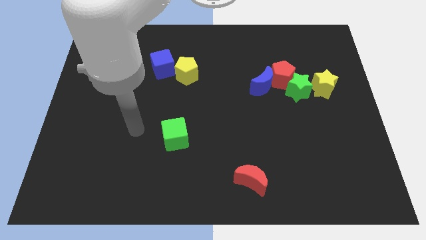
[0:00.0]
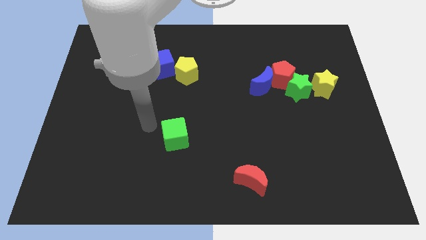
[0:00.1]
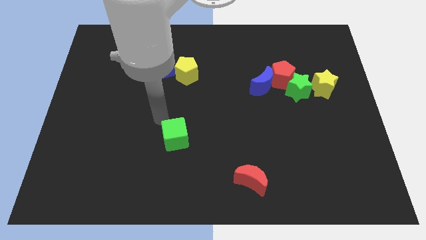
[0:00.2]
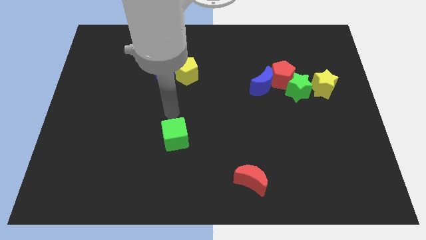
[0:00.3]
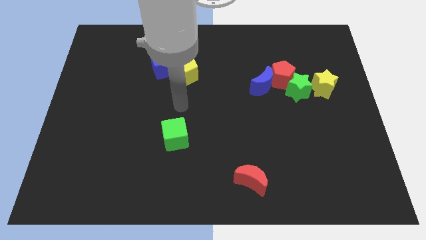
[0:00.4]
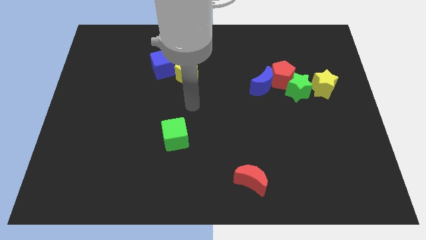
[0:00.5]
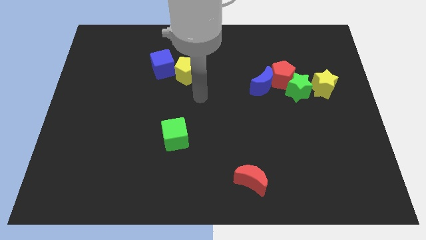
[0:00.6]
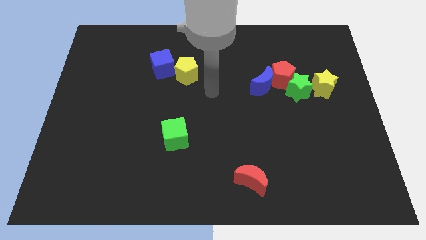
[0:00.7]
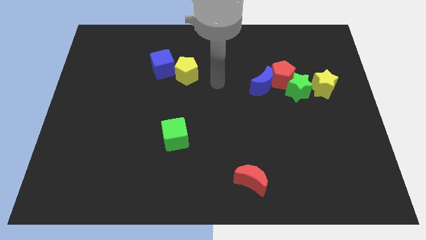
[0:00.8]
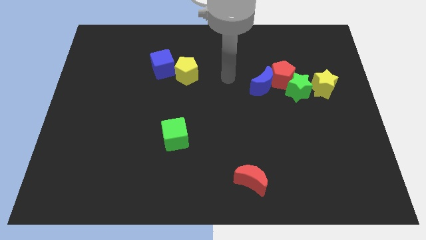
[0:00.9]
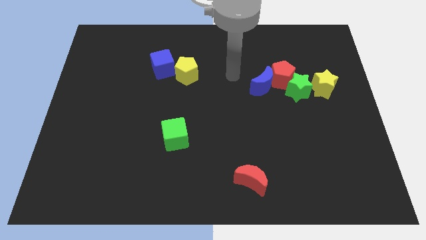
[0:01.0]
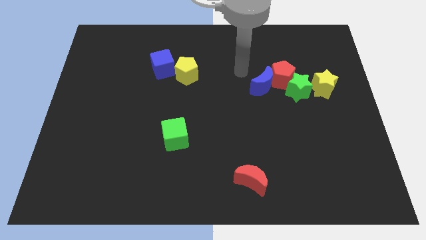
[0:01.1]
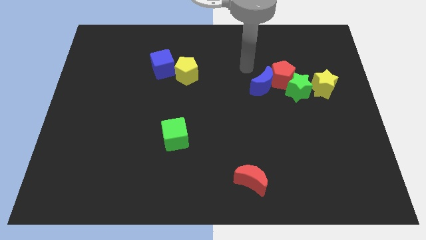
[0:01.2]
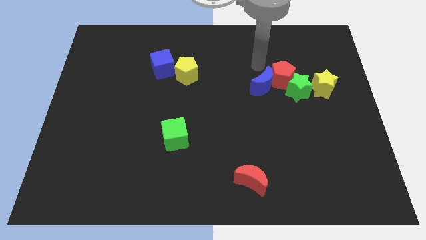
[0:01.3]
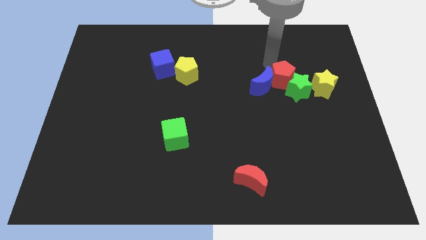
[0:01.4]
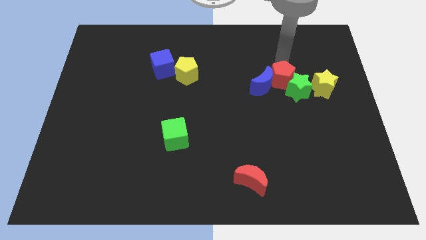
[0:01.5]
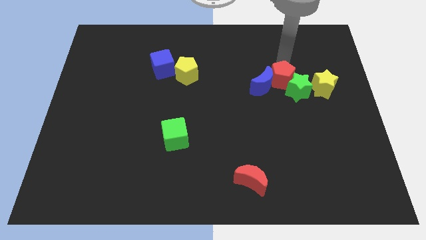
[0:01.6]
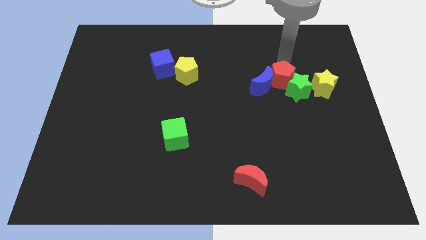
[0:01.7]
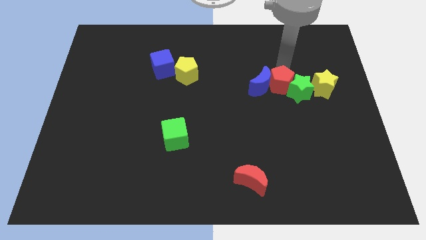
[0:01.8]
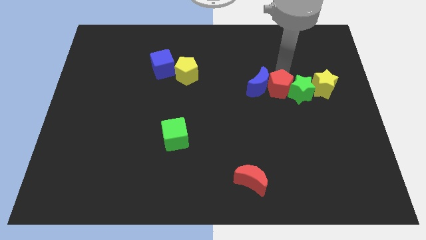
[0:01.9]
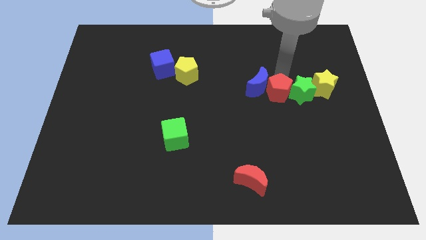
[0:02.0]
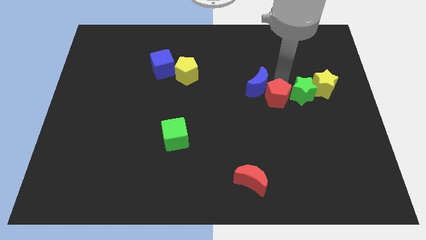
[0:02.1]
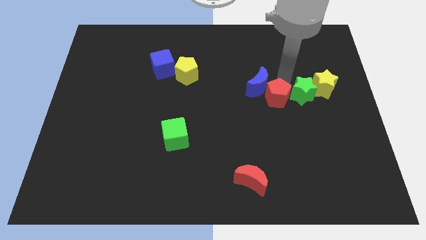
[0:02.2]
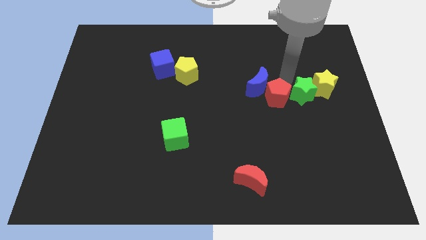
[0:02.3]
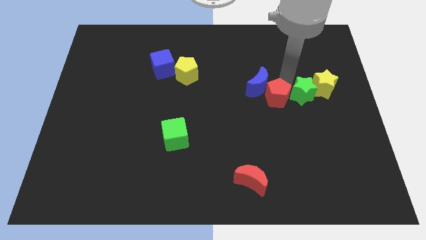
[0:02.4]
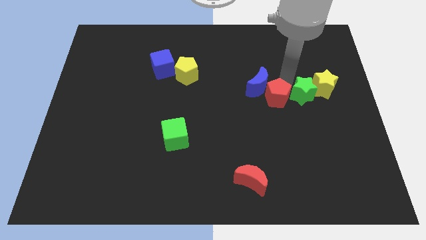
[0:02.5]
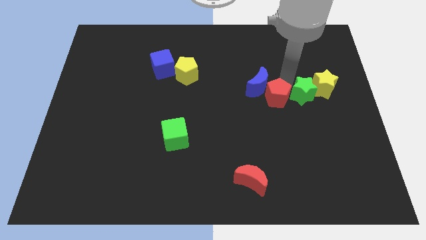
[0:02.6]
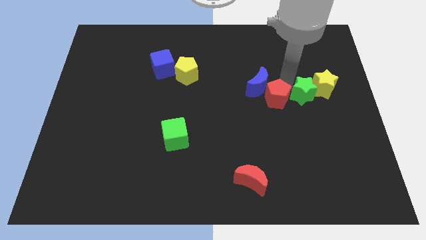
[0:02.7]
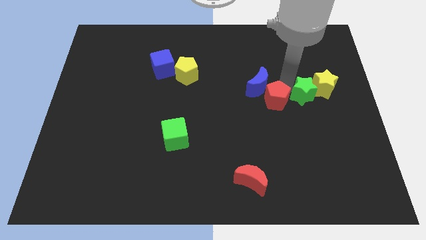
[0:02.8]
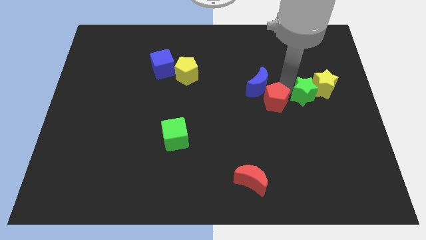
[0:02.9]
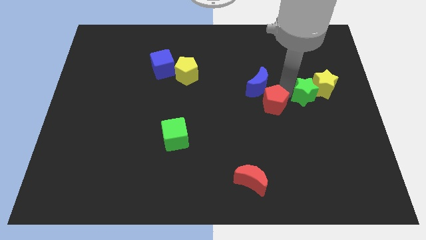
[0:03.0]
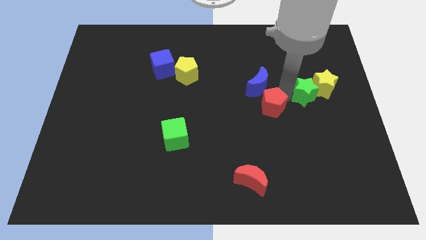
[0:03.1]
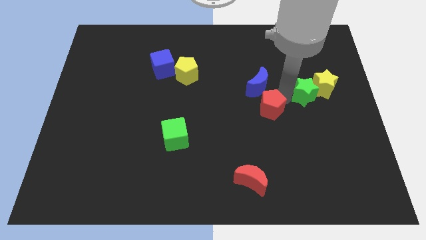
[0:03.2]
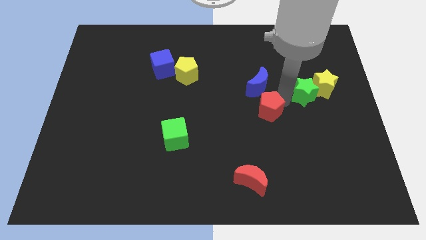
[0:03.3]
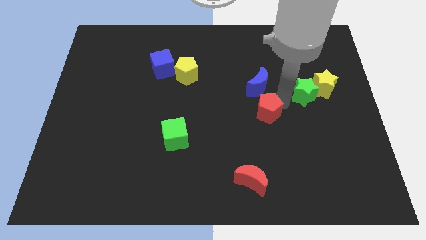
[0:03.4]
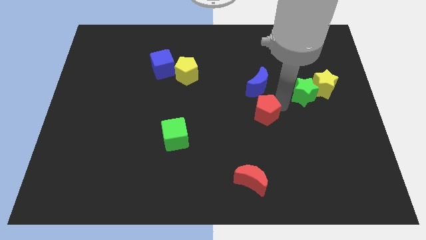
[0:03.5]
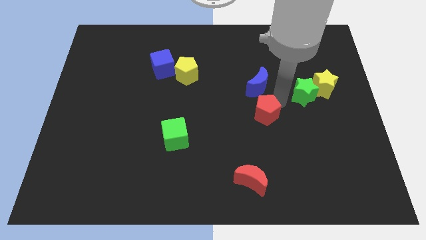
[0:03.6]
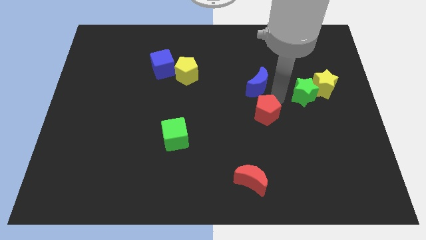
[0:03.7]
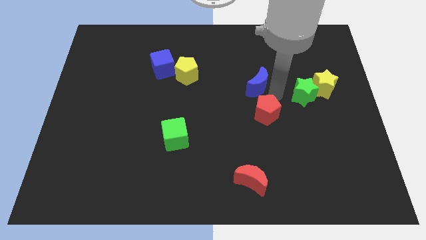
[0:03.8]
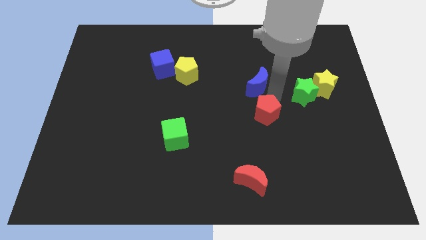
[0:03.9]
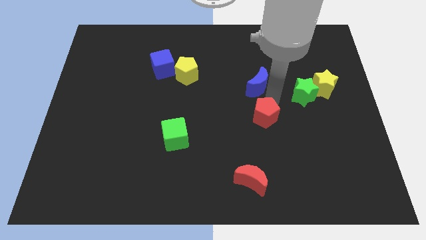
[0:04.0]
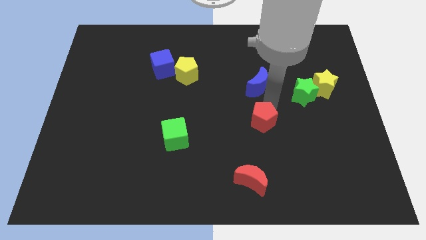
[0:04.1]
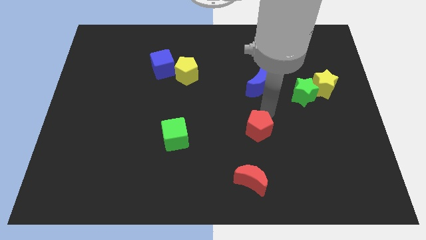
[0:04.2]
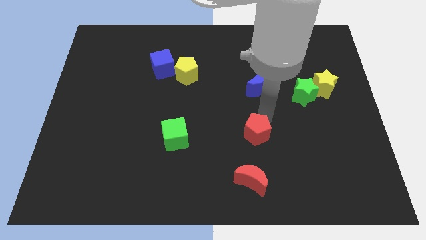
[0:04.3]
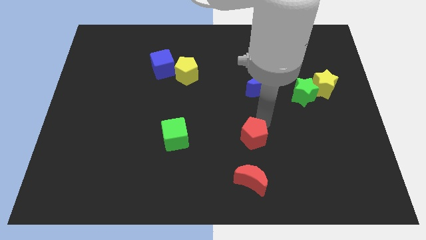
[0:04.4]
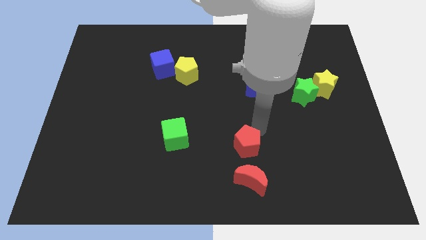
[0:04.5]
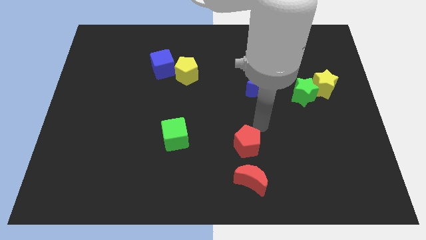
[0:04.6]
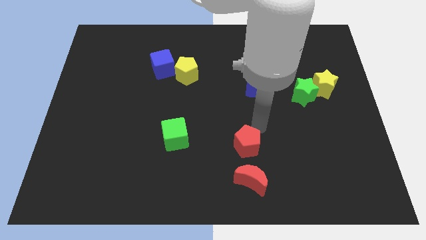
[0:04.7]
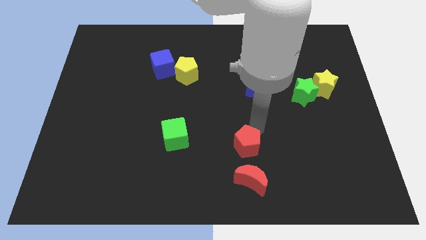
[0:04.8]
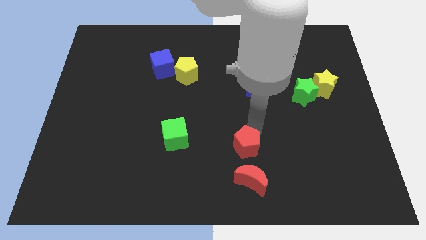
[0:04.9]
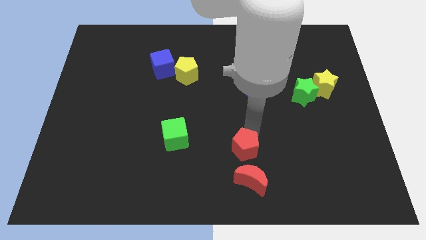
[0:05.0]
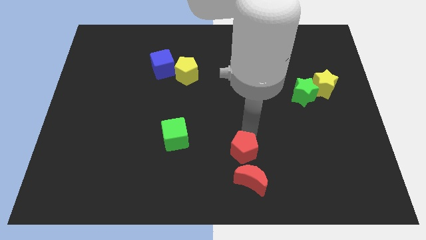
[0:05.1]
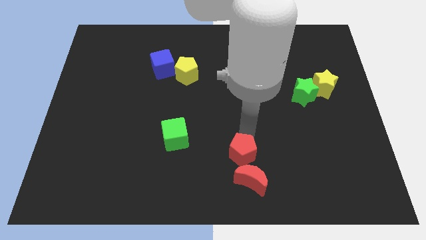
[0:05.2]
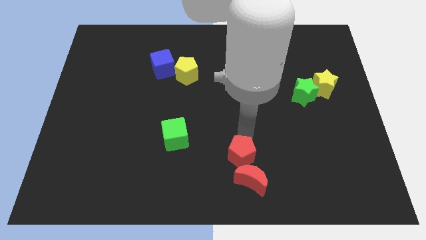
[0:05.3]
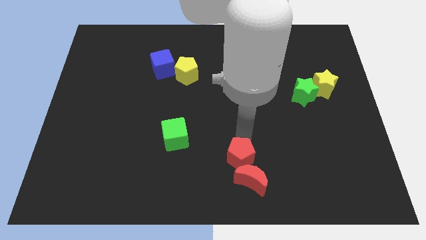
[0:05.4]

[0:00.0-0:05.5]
move the red pentagon to the bottom

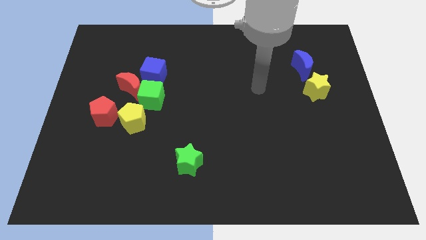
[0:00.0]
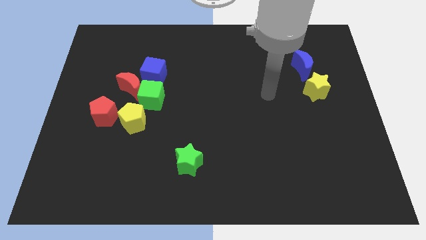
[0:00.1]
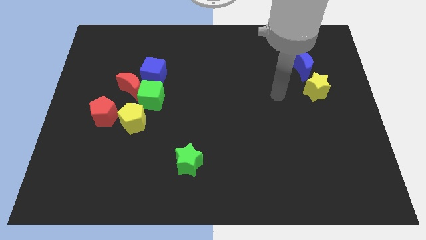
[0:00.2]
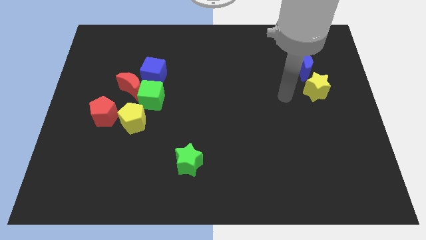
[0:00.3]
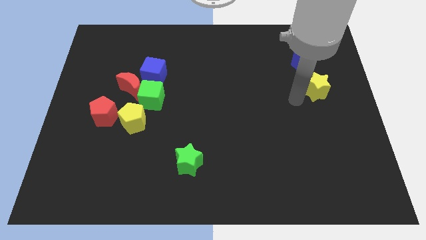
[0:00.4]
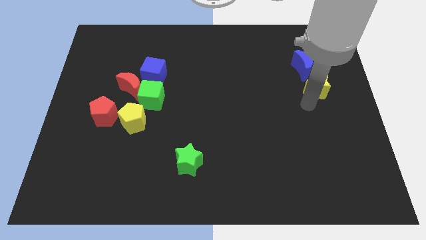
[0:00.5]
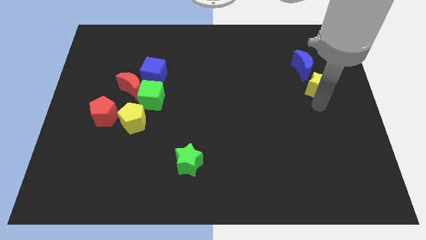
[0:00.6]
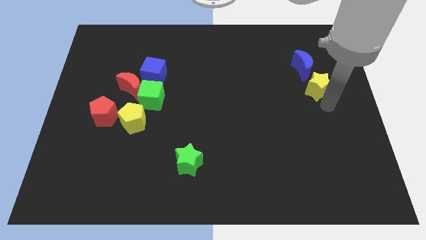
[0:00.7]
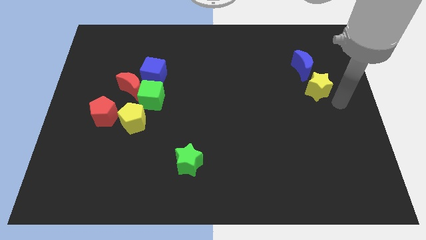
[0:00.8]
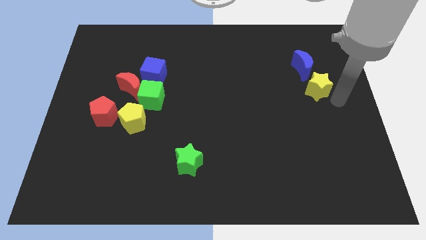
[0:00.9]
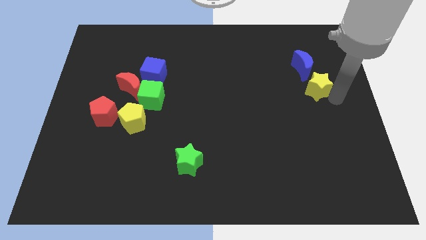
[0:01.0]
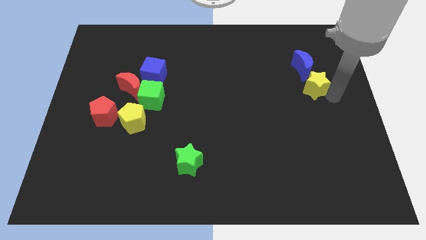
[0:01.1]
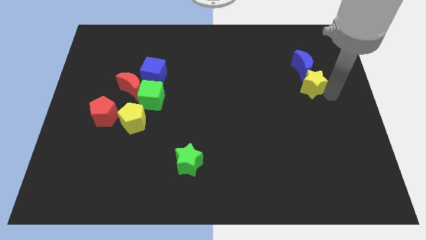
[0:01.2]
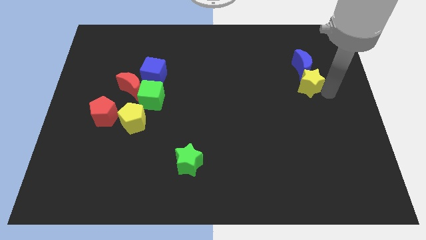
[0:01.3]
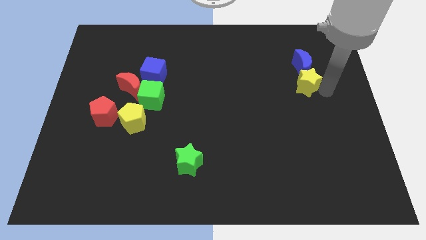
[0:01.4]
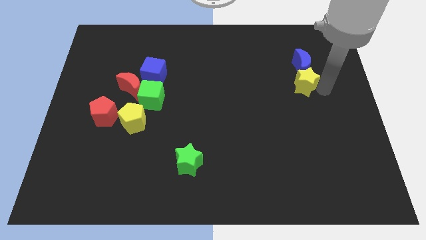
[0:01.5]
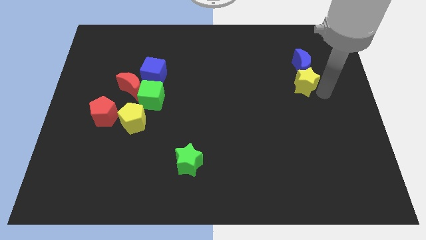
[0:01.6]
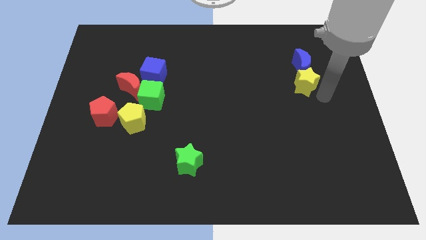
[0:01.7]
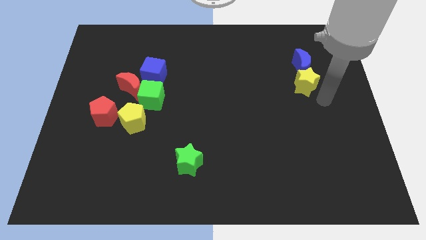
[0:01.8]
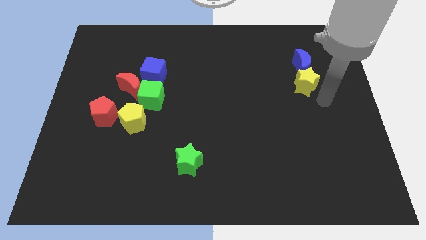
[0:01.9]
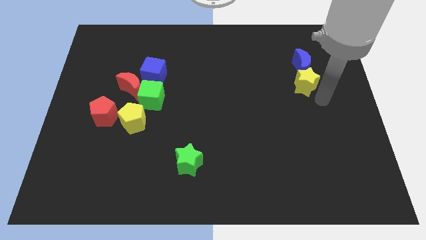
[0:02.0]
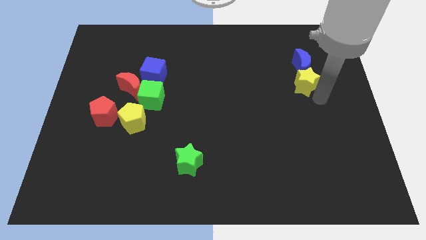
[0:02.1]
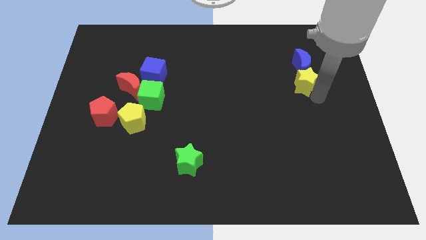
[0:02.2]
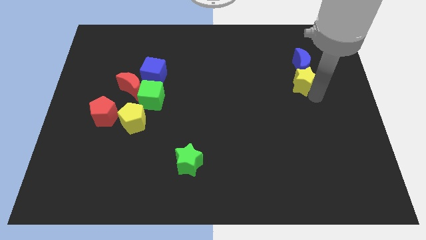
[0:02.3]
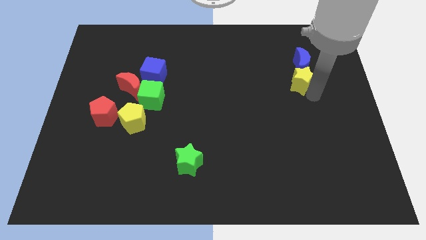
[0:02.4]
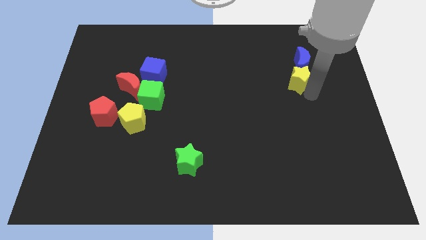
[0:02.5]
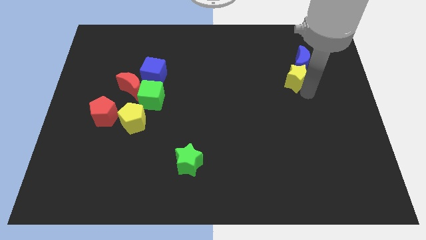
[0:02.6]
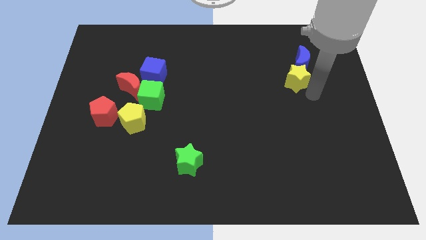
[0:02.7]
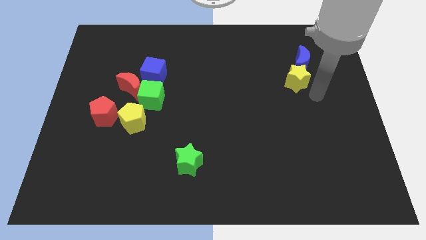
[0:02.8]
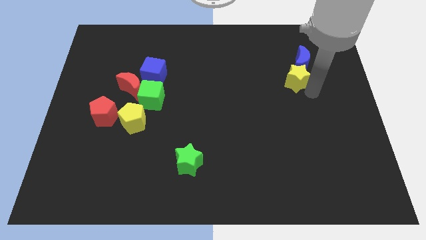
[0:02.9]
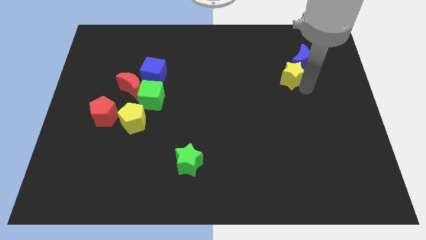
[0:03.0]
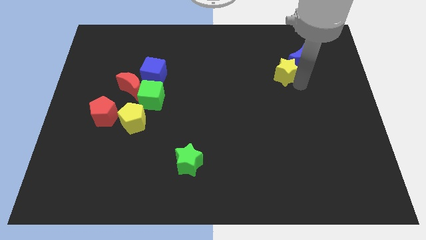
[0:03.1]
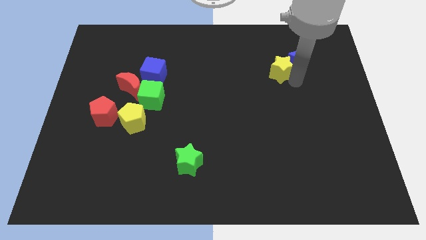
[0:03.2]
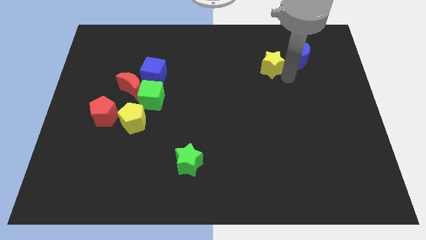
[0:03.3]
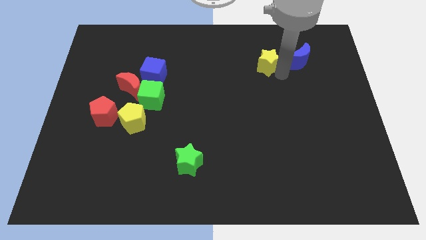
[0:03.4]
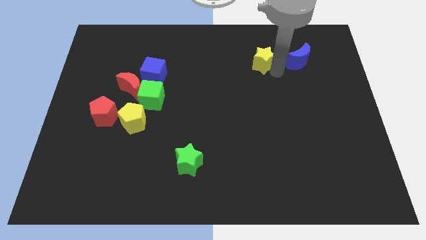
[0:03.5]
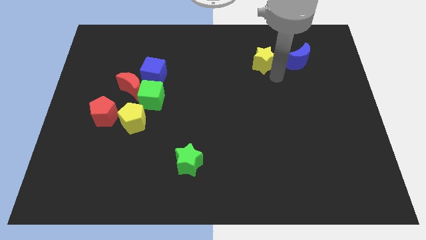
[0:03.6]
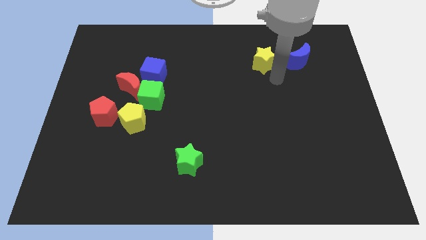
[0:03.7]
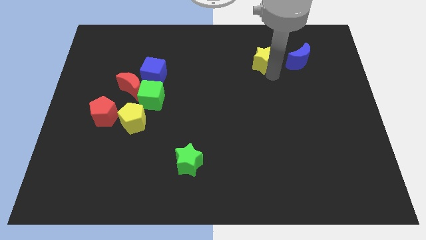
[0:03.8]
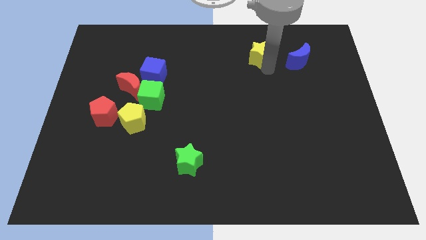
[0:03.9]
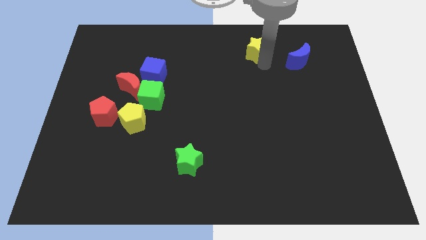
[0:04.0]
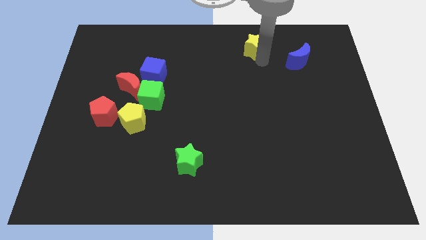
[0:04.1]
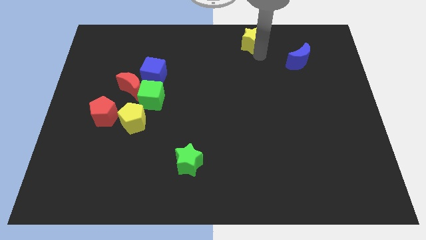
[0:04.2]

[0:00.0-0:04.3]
slide the yellow star to the top
